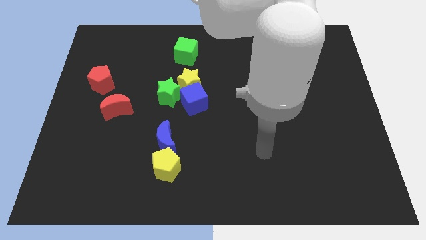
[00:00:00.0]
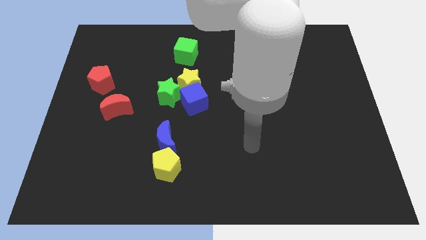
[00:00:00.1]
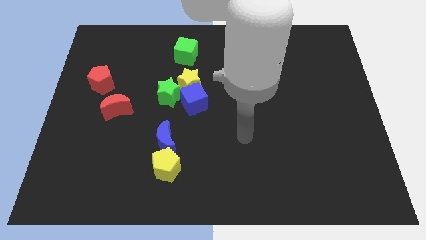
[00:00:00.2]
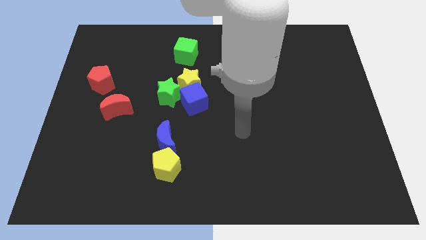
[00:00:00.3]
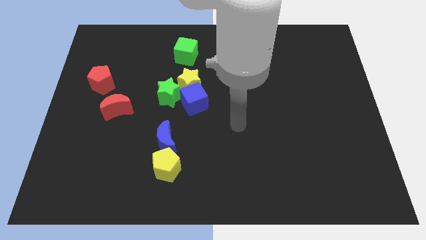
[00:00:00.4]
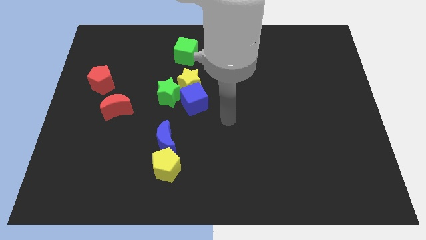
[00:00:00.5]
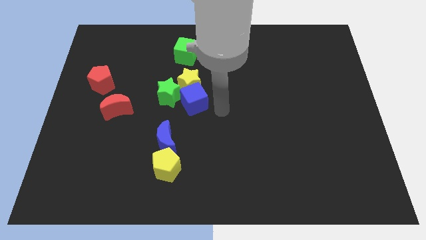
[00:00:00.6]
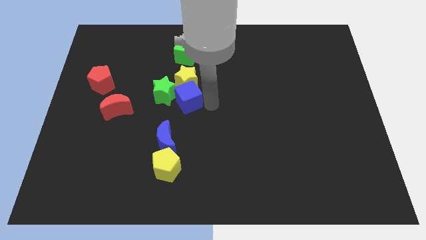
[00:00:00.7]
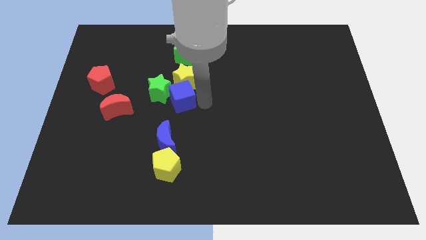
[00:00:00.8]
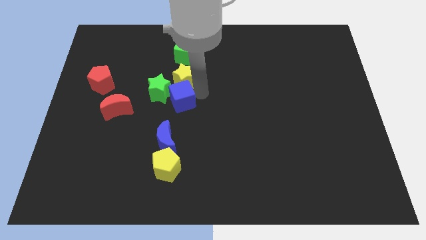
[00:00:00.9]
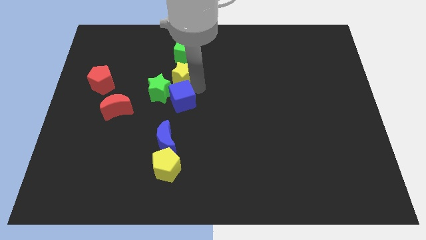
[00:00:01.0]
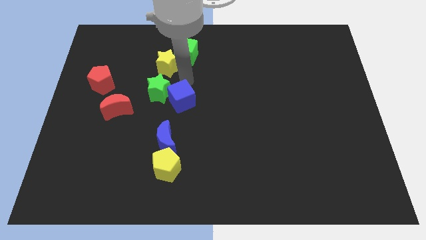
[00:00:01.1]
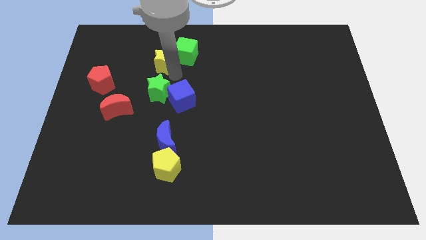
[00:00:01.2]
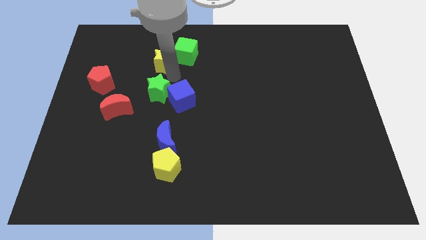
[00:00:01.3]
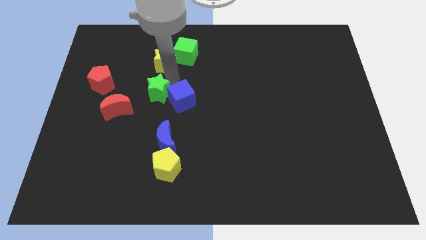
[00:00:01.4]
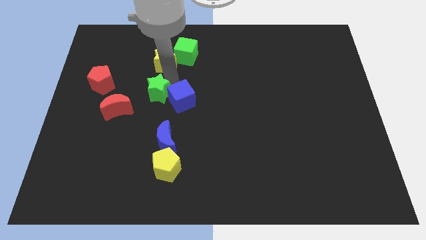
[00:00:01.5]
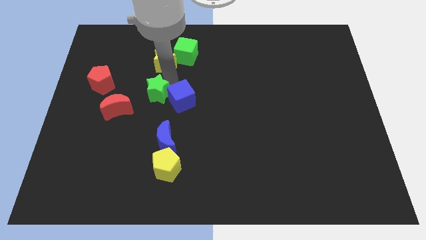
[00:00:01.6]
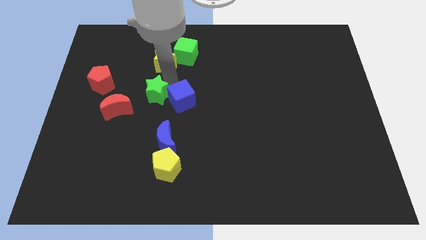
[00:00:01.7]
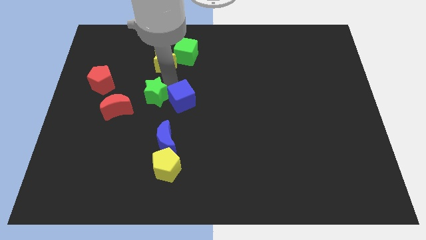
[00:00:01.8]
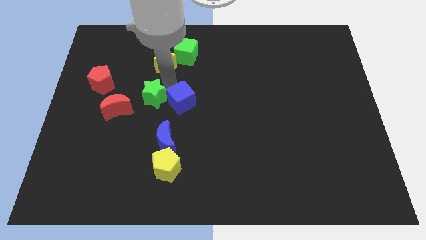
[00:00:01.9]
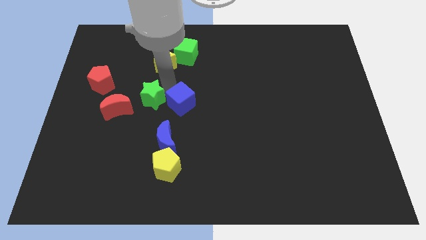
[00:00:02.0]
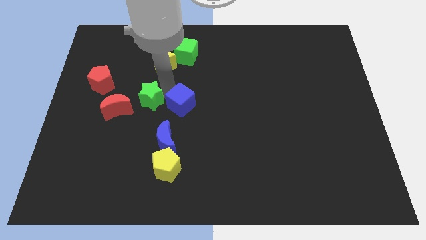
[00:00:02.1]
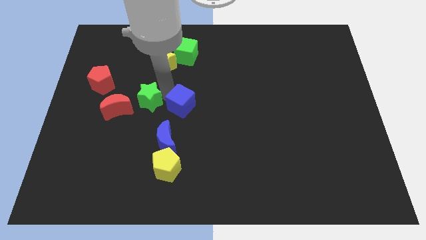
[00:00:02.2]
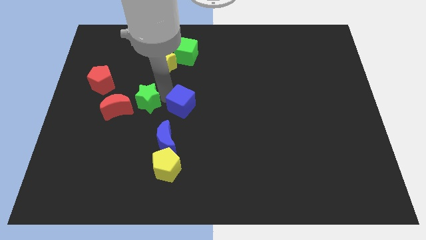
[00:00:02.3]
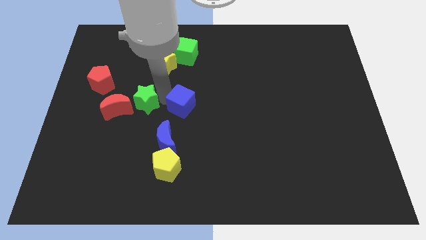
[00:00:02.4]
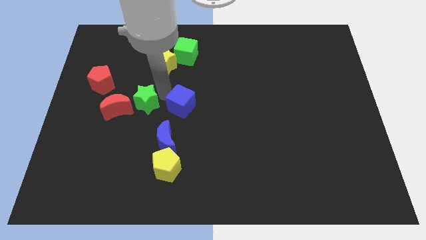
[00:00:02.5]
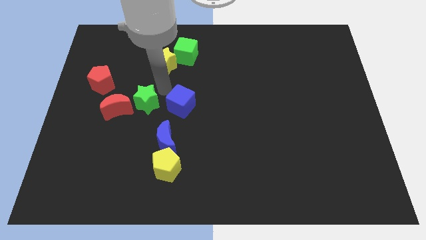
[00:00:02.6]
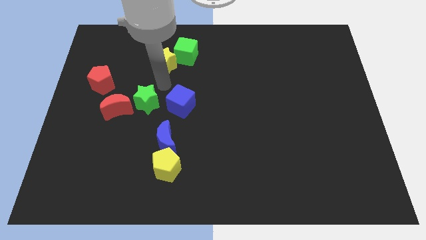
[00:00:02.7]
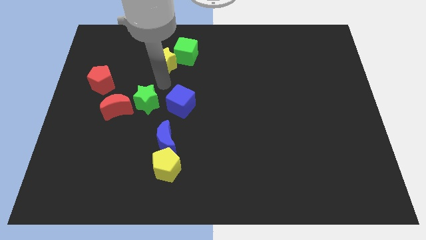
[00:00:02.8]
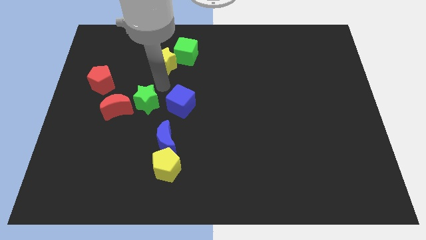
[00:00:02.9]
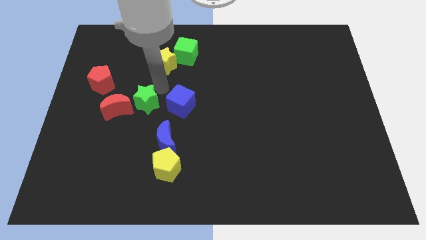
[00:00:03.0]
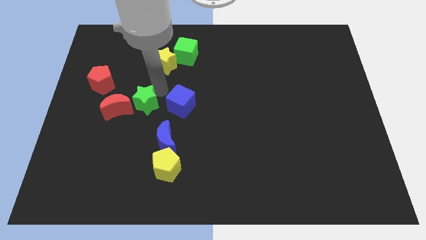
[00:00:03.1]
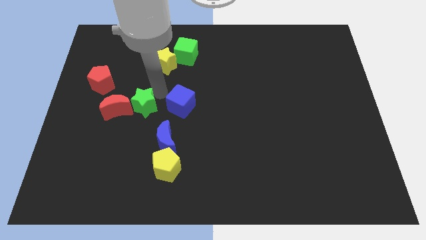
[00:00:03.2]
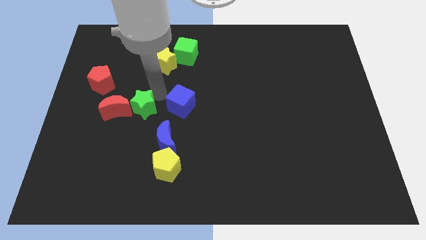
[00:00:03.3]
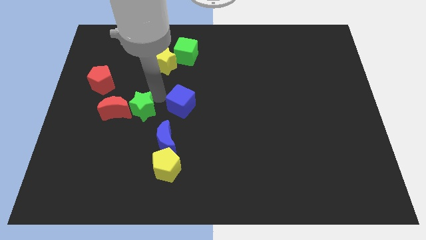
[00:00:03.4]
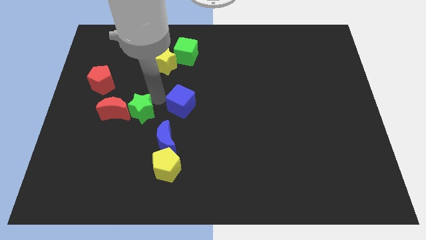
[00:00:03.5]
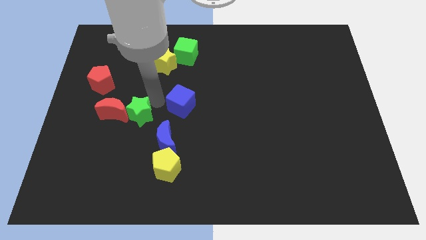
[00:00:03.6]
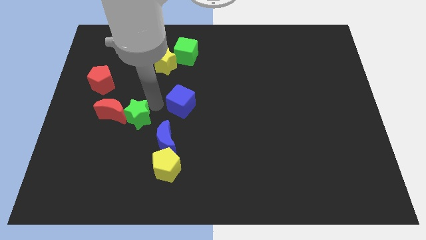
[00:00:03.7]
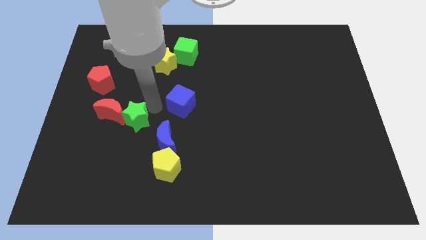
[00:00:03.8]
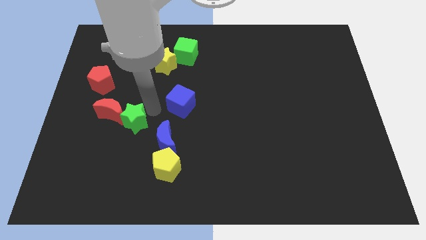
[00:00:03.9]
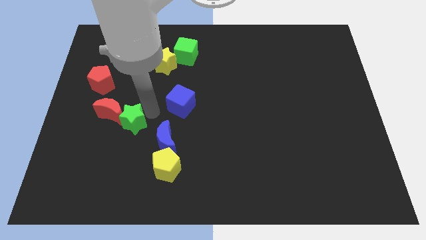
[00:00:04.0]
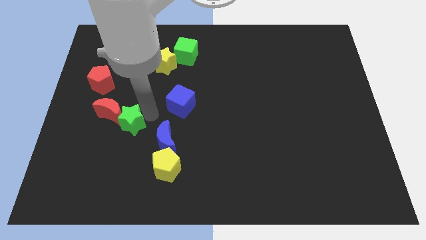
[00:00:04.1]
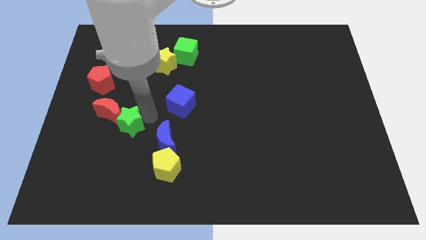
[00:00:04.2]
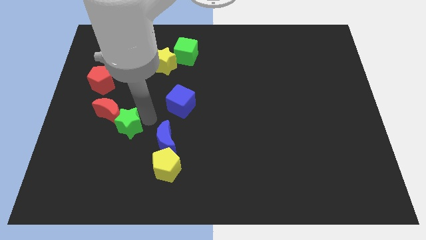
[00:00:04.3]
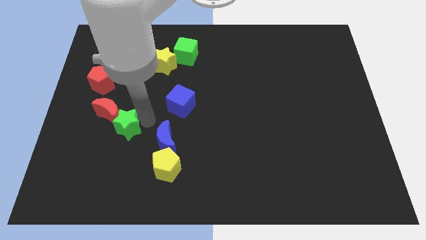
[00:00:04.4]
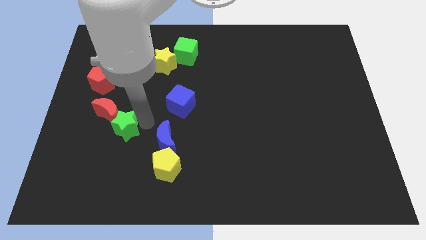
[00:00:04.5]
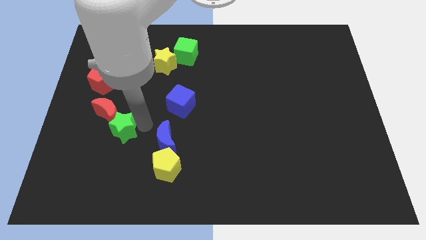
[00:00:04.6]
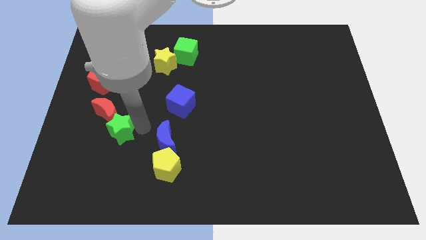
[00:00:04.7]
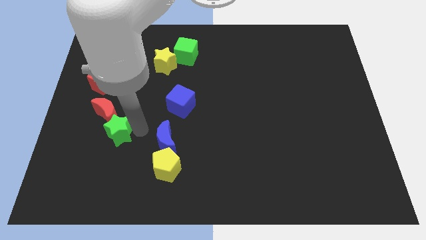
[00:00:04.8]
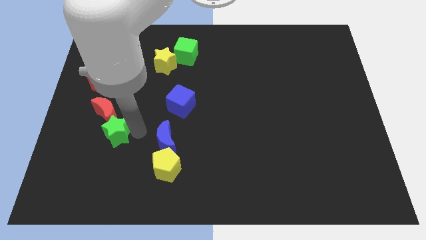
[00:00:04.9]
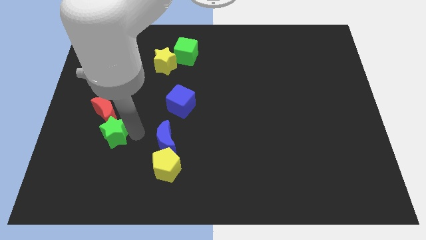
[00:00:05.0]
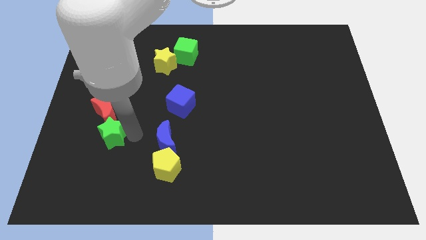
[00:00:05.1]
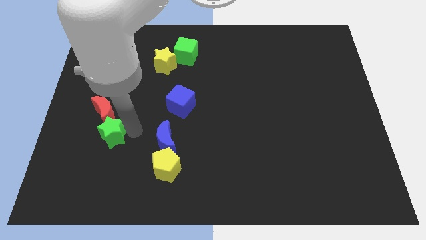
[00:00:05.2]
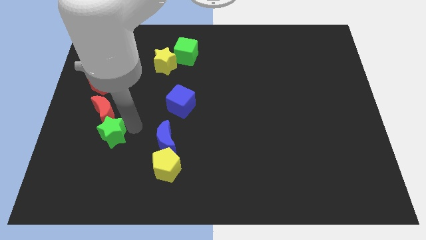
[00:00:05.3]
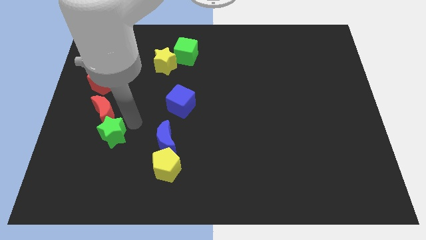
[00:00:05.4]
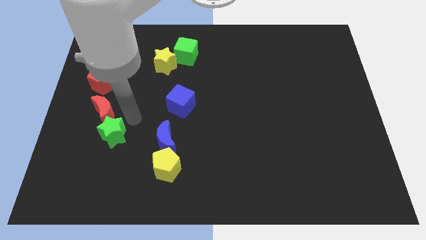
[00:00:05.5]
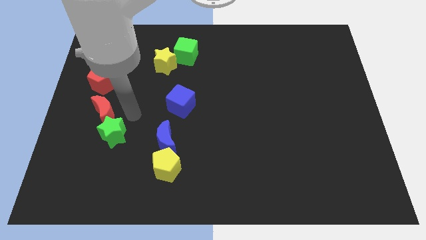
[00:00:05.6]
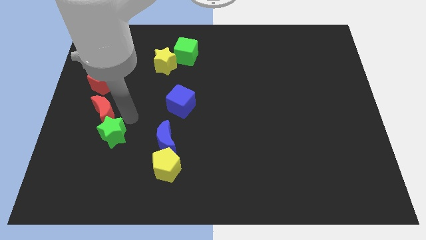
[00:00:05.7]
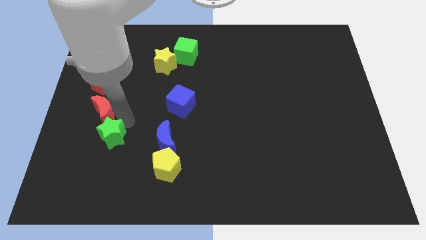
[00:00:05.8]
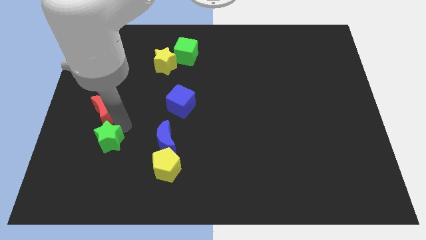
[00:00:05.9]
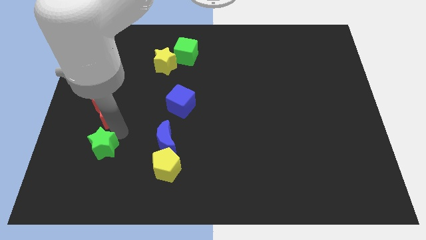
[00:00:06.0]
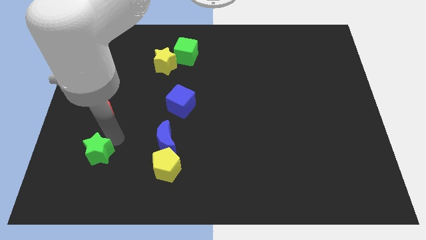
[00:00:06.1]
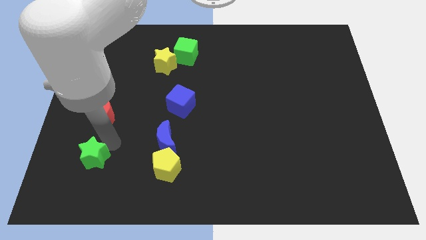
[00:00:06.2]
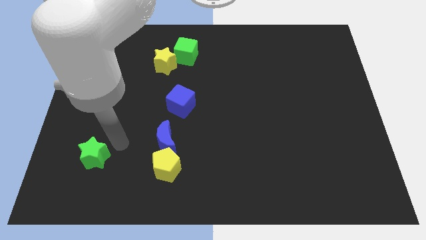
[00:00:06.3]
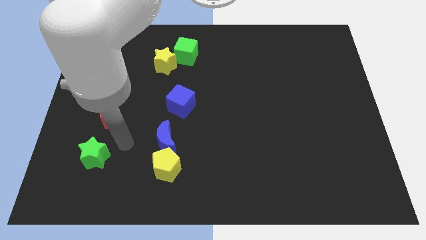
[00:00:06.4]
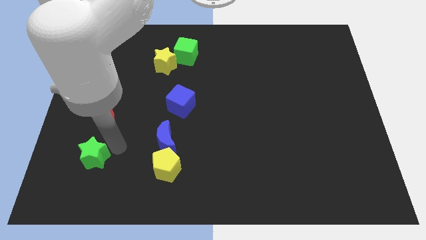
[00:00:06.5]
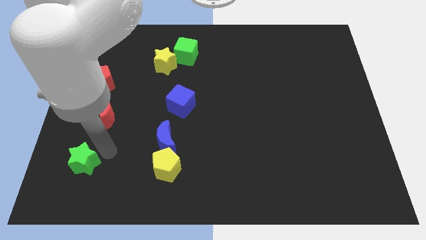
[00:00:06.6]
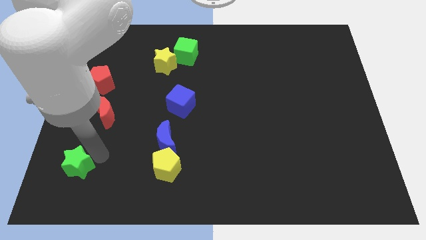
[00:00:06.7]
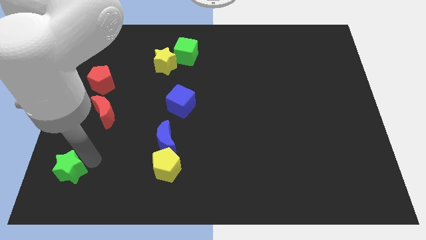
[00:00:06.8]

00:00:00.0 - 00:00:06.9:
slide the green star to the bottom left corner
